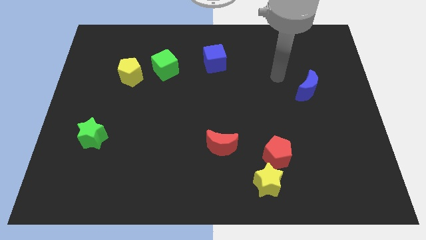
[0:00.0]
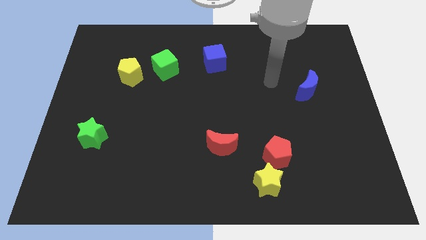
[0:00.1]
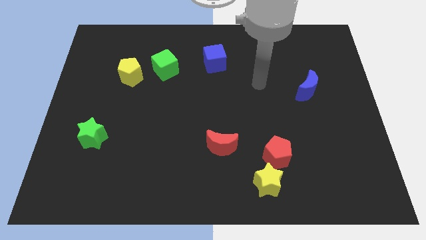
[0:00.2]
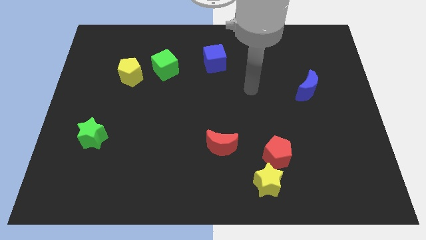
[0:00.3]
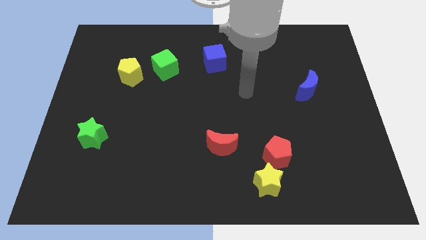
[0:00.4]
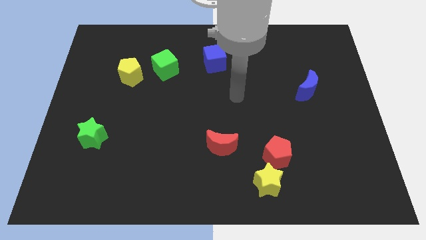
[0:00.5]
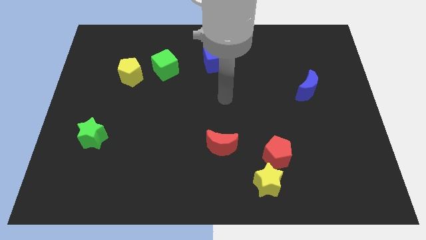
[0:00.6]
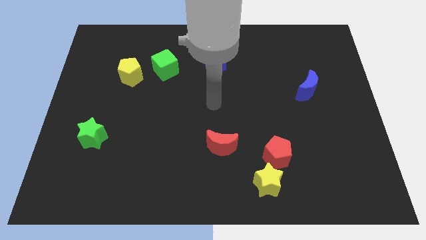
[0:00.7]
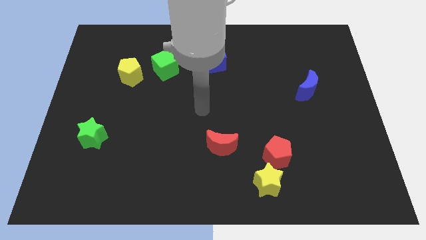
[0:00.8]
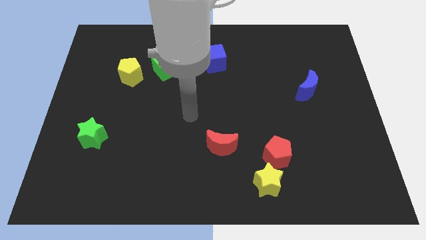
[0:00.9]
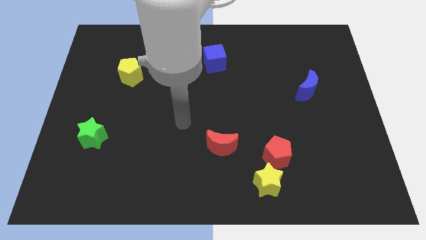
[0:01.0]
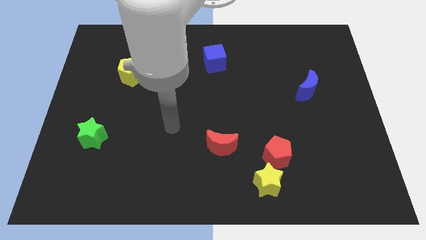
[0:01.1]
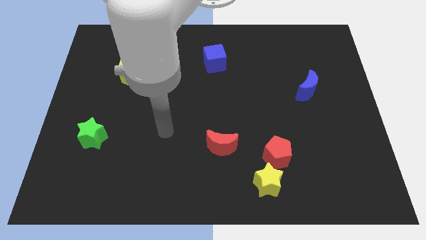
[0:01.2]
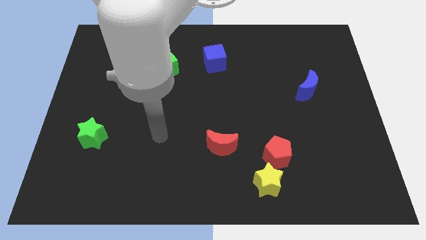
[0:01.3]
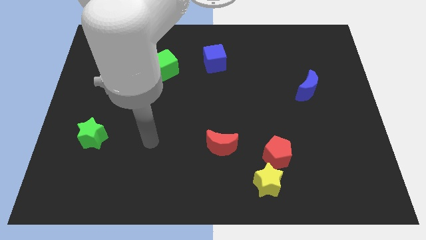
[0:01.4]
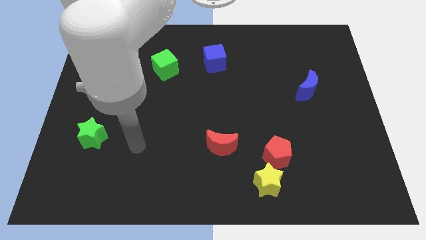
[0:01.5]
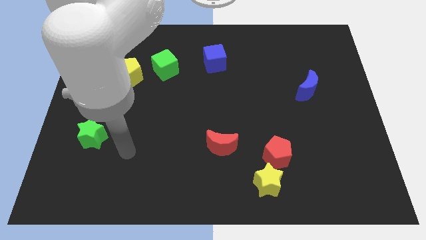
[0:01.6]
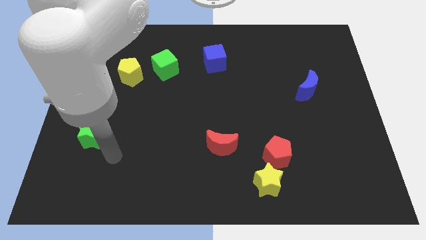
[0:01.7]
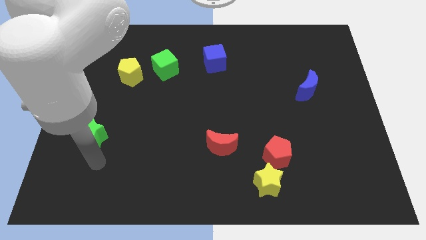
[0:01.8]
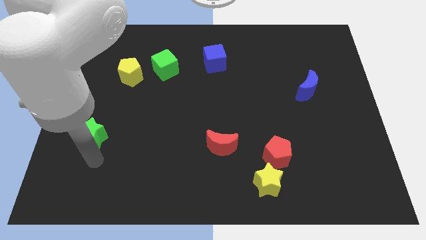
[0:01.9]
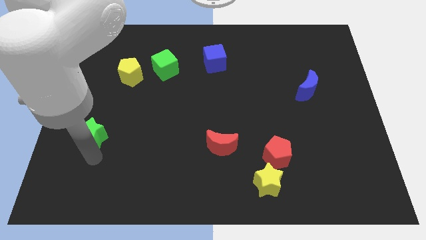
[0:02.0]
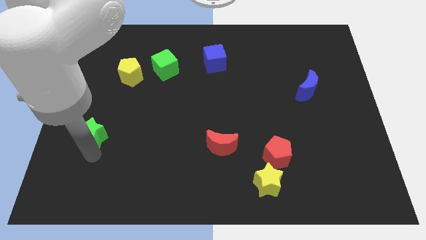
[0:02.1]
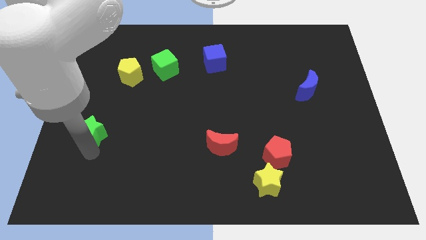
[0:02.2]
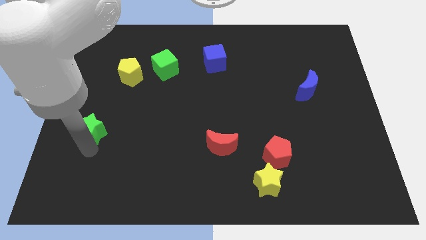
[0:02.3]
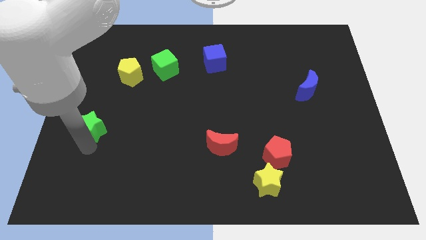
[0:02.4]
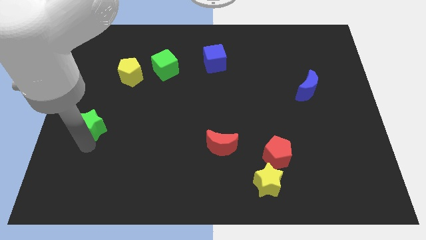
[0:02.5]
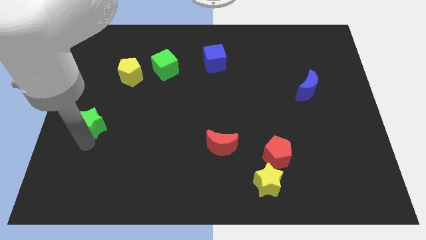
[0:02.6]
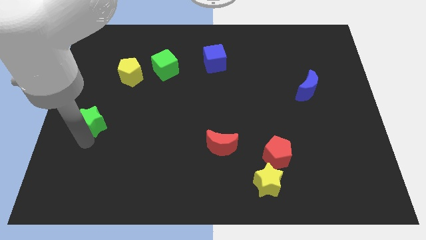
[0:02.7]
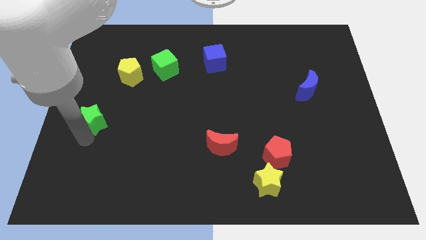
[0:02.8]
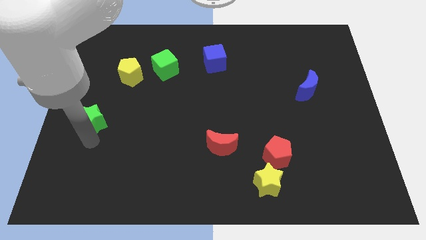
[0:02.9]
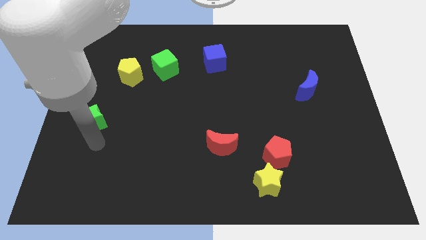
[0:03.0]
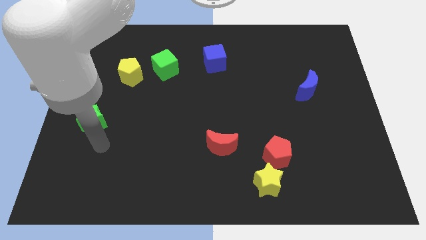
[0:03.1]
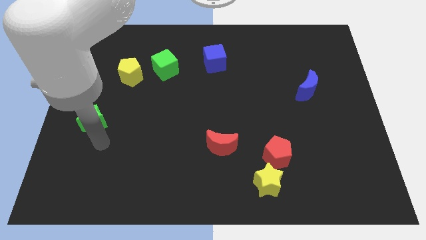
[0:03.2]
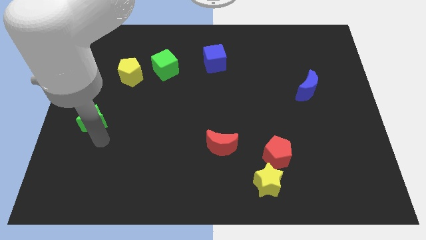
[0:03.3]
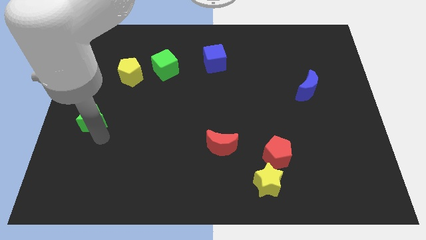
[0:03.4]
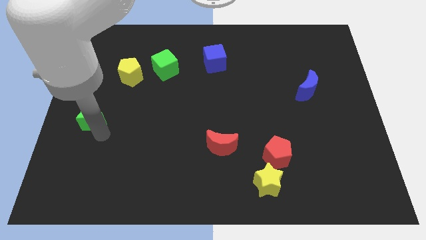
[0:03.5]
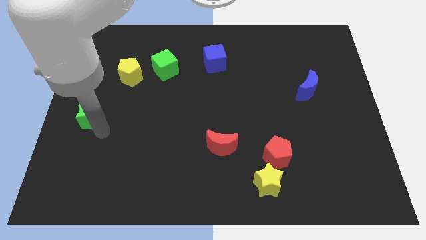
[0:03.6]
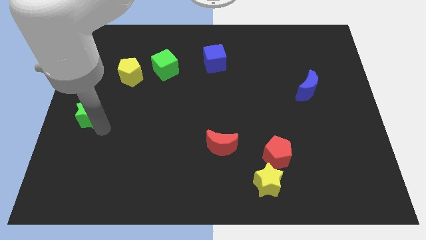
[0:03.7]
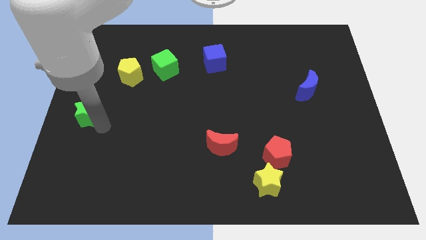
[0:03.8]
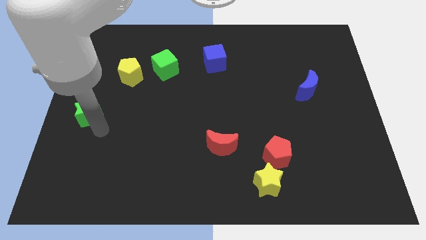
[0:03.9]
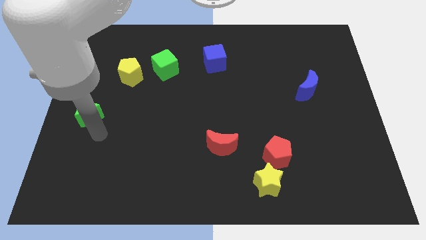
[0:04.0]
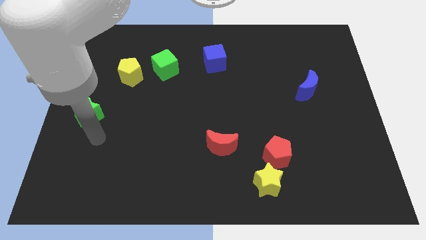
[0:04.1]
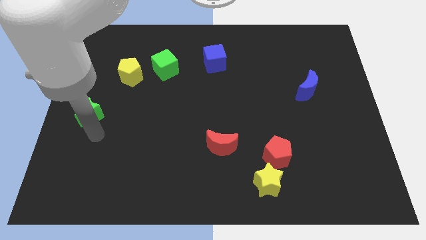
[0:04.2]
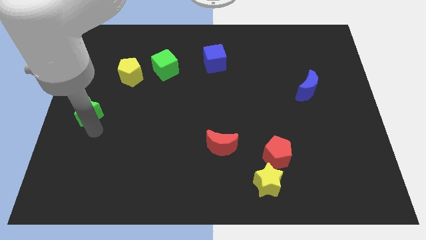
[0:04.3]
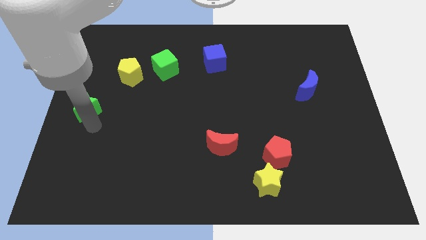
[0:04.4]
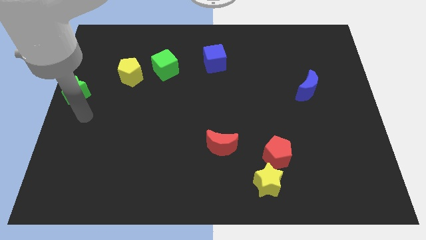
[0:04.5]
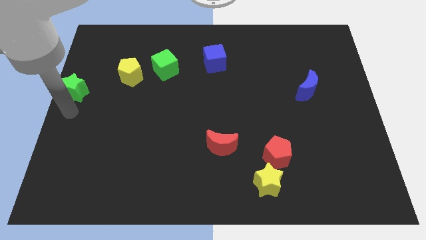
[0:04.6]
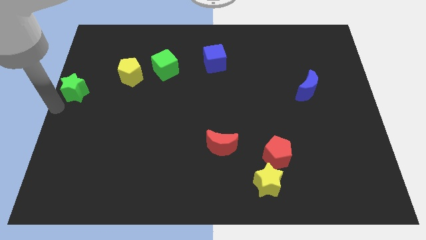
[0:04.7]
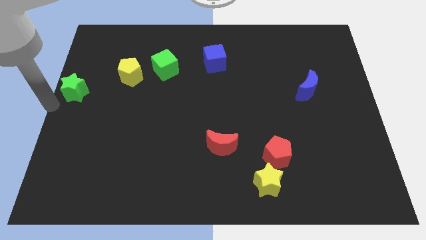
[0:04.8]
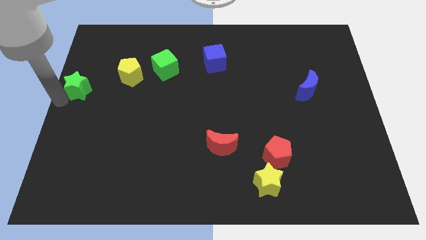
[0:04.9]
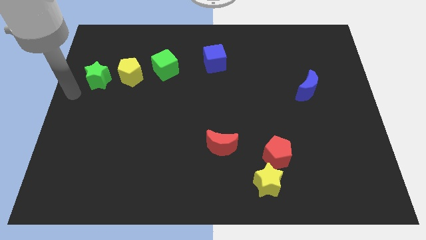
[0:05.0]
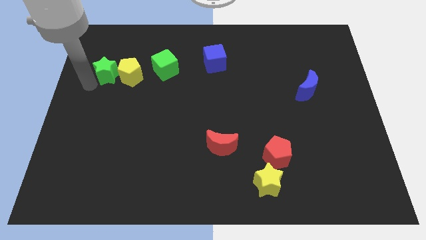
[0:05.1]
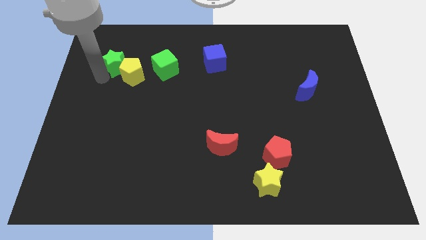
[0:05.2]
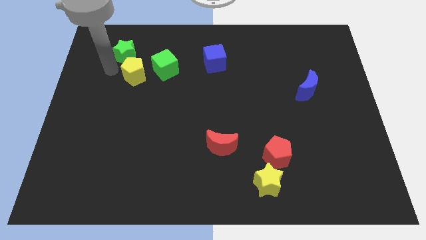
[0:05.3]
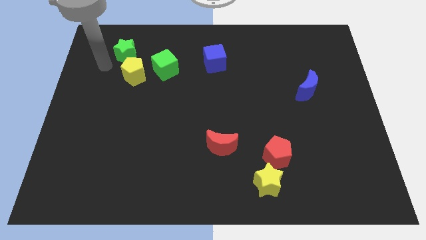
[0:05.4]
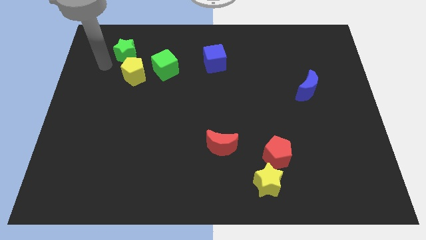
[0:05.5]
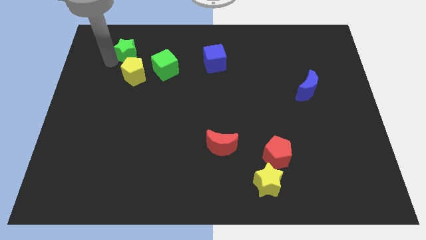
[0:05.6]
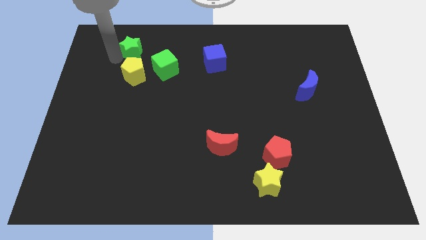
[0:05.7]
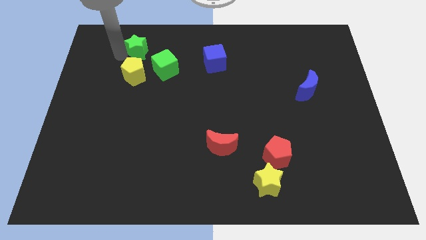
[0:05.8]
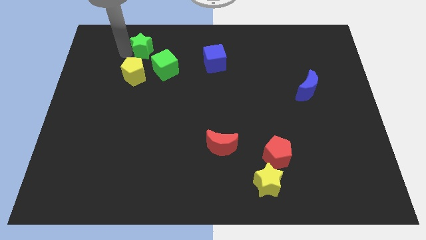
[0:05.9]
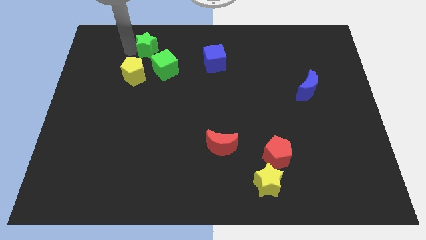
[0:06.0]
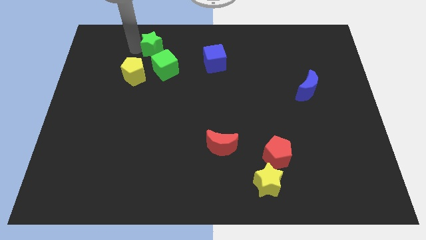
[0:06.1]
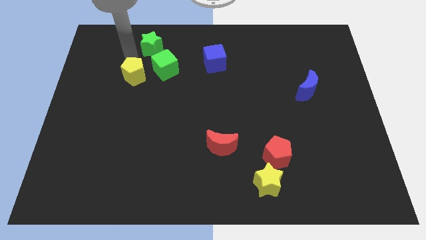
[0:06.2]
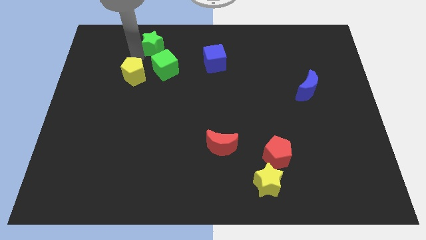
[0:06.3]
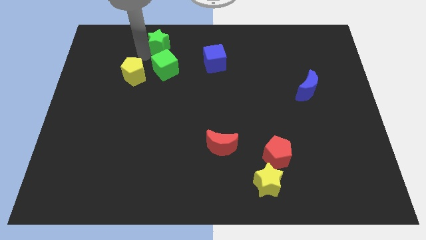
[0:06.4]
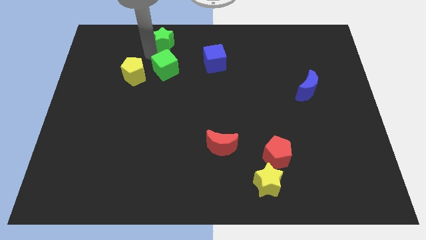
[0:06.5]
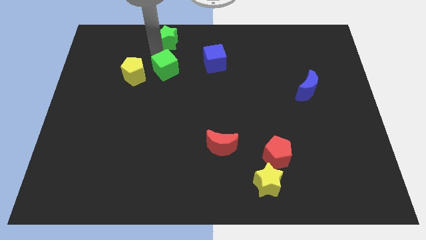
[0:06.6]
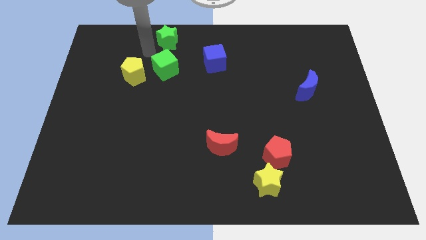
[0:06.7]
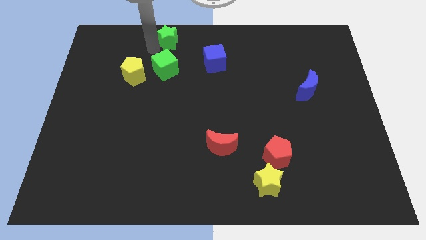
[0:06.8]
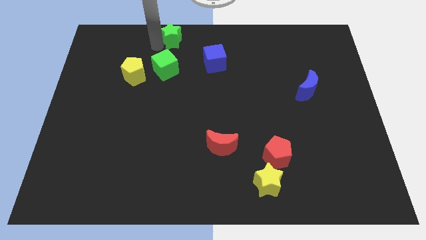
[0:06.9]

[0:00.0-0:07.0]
push the green star to the towards your base

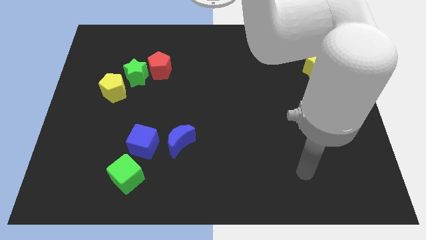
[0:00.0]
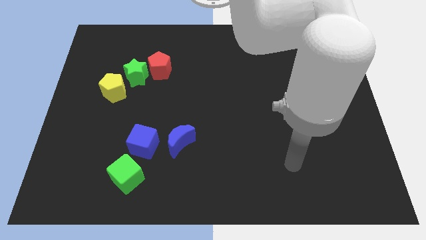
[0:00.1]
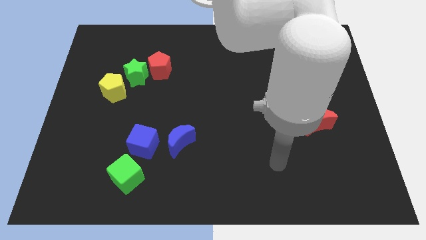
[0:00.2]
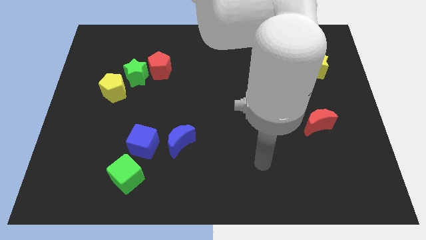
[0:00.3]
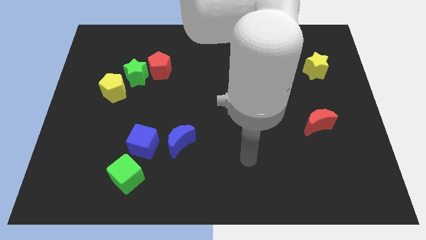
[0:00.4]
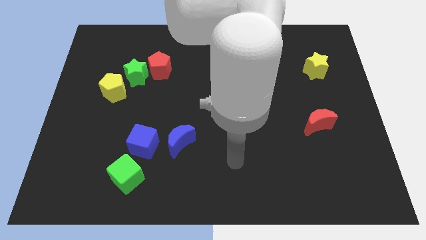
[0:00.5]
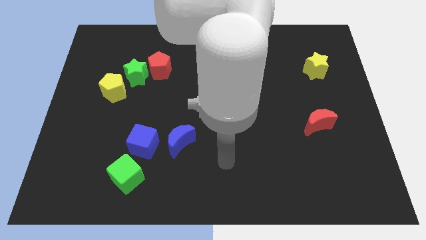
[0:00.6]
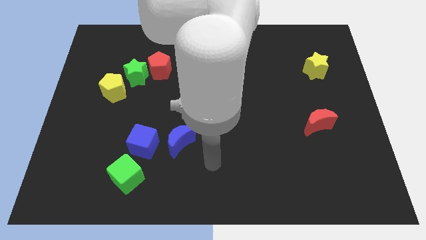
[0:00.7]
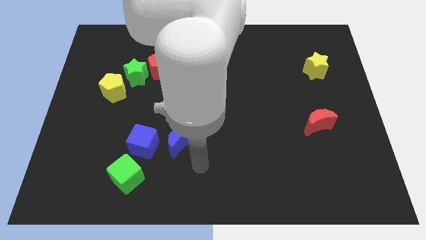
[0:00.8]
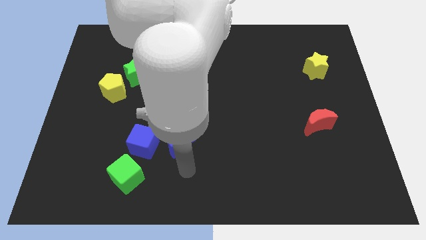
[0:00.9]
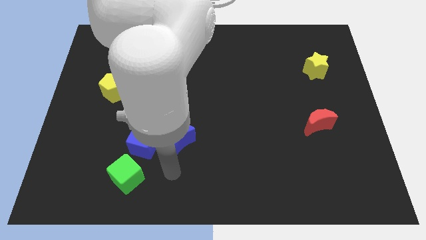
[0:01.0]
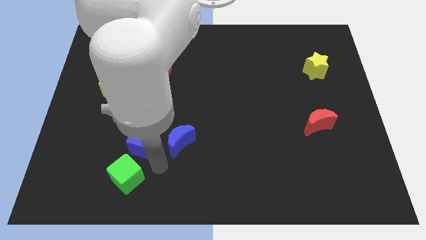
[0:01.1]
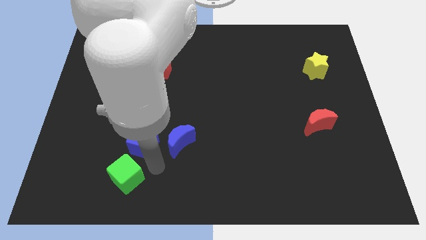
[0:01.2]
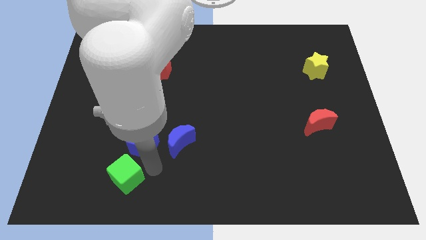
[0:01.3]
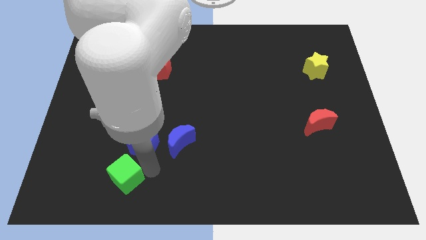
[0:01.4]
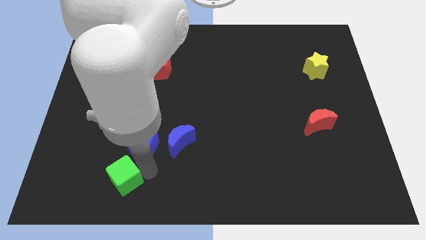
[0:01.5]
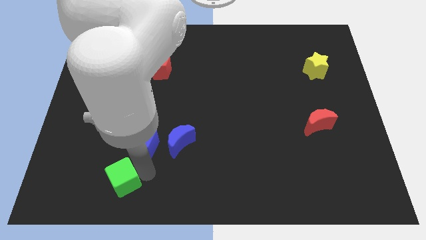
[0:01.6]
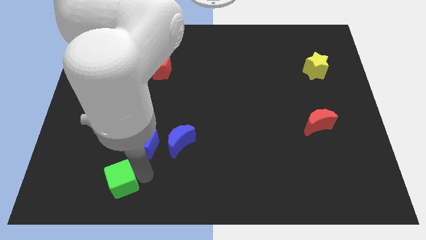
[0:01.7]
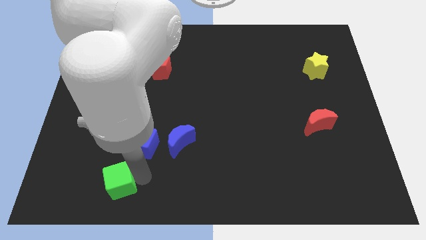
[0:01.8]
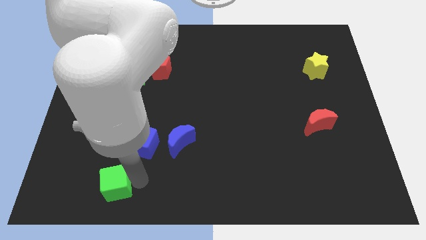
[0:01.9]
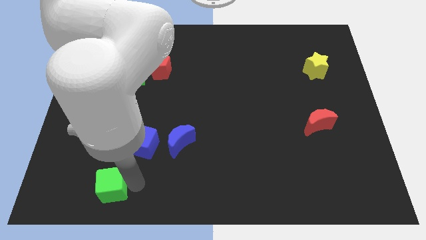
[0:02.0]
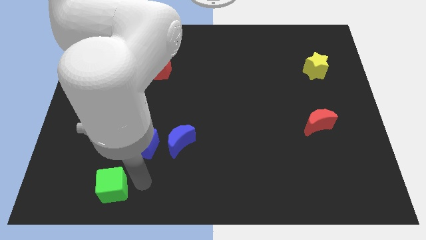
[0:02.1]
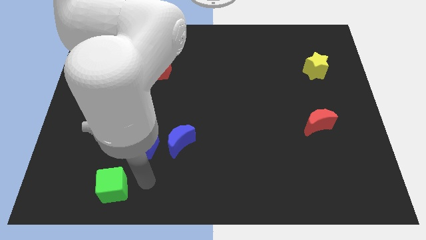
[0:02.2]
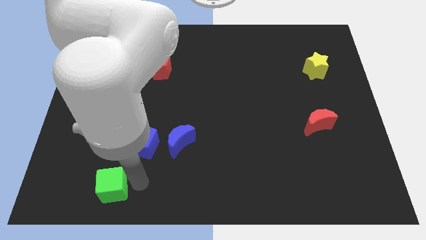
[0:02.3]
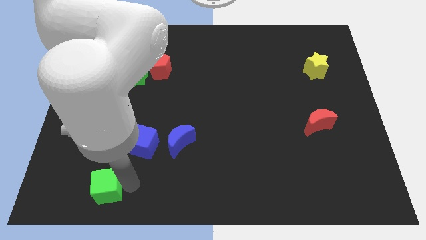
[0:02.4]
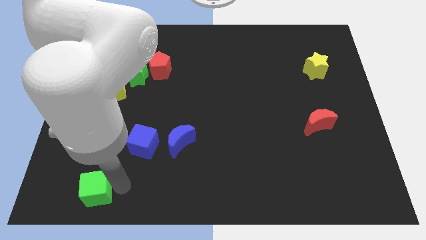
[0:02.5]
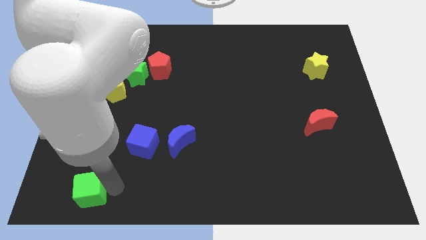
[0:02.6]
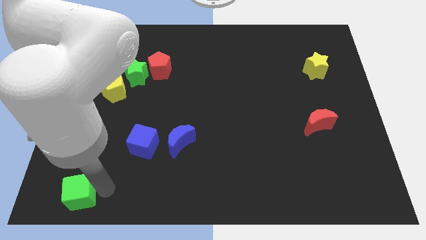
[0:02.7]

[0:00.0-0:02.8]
put the green cube to the bottom left
